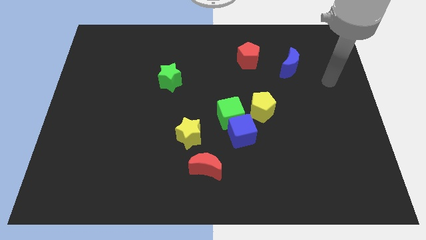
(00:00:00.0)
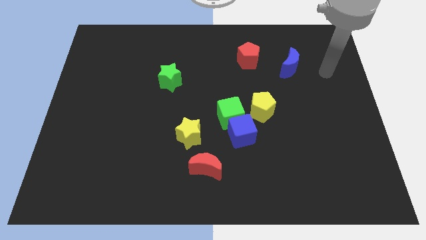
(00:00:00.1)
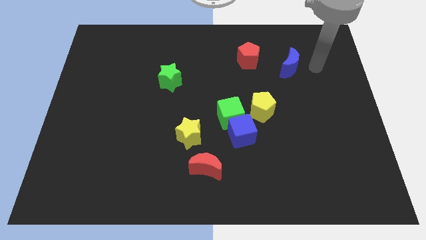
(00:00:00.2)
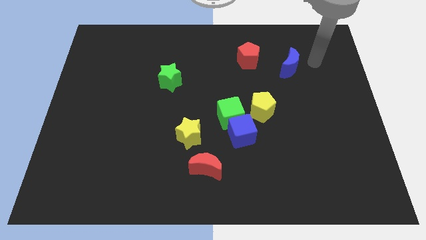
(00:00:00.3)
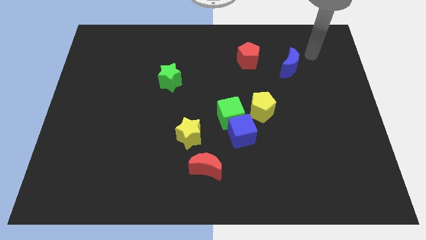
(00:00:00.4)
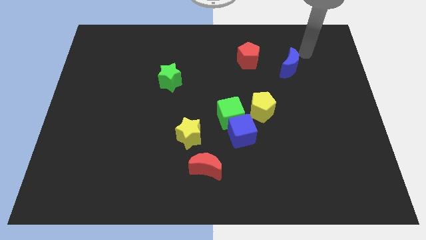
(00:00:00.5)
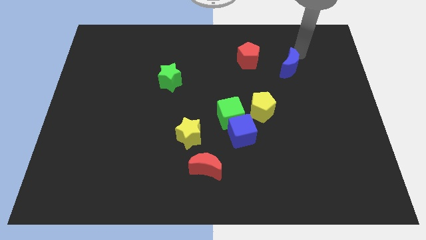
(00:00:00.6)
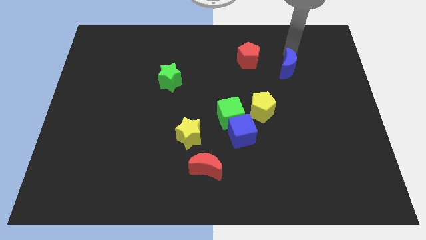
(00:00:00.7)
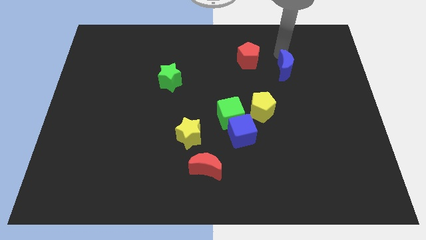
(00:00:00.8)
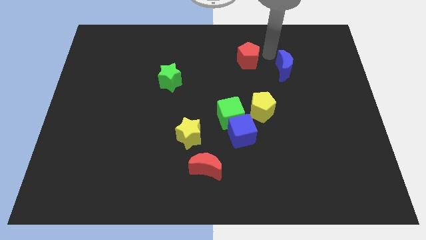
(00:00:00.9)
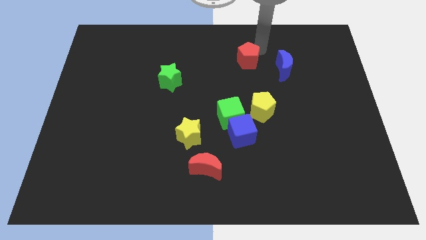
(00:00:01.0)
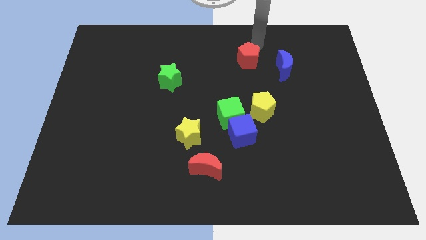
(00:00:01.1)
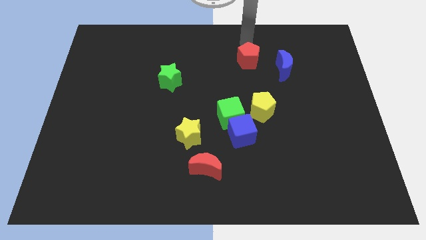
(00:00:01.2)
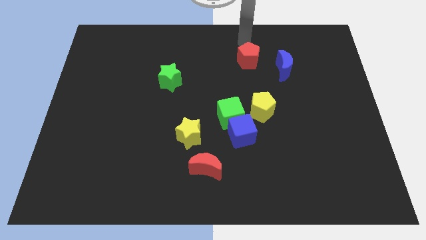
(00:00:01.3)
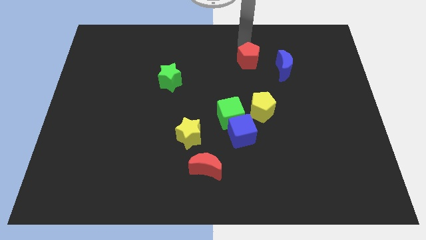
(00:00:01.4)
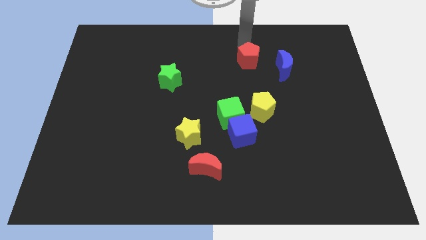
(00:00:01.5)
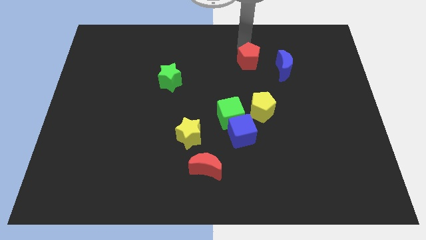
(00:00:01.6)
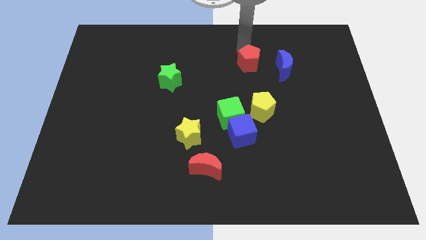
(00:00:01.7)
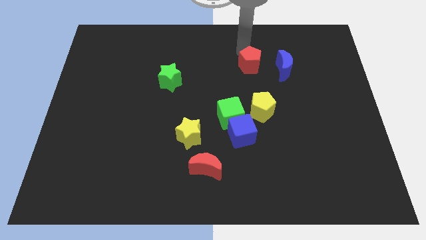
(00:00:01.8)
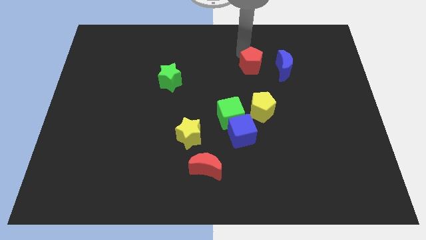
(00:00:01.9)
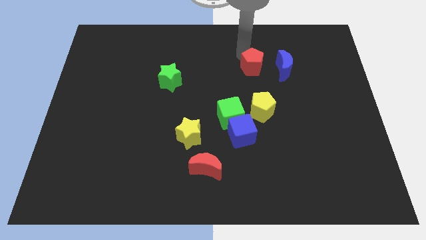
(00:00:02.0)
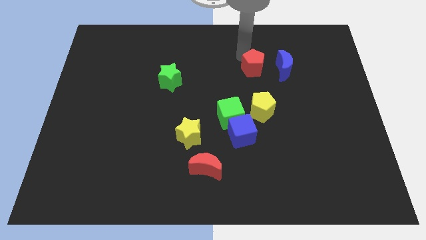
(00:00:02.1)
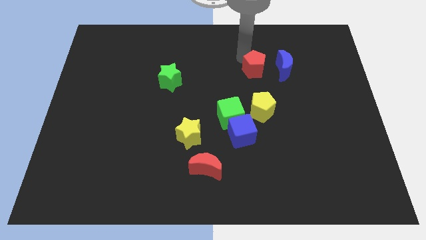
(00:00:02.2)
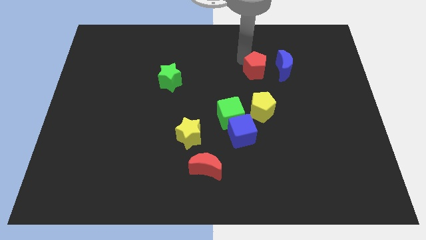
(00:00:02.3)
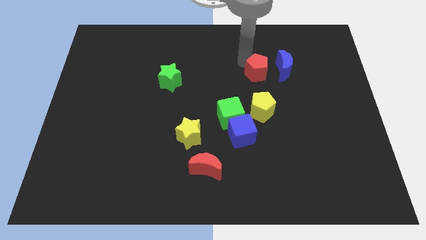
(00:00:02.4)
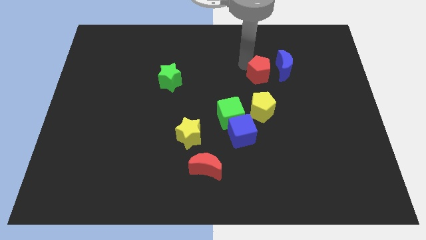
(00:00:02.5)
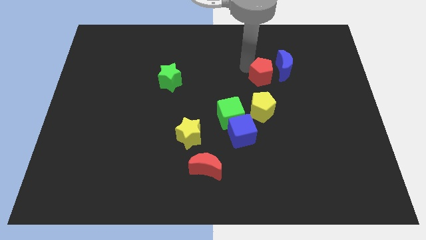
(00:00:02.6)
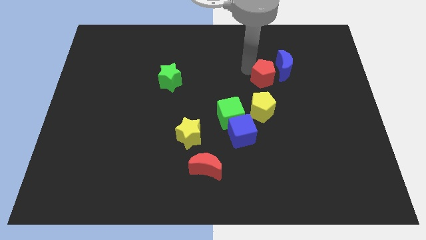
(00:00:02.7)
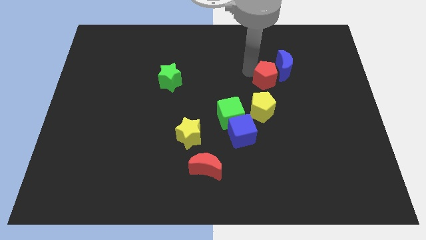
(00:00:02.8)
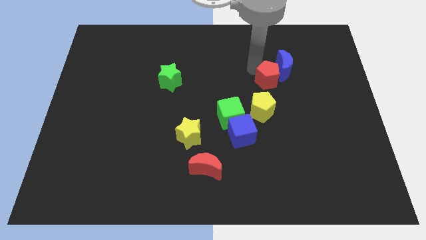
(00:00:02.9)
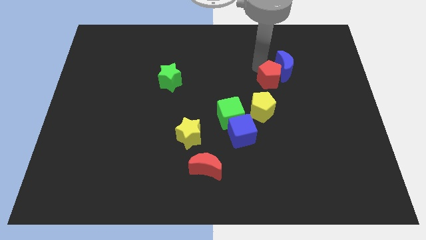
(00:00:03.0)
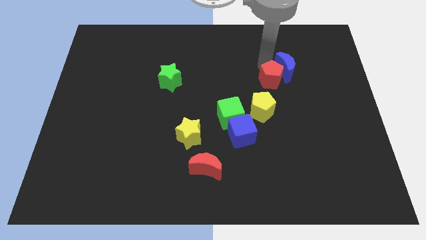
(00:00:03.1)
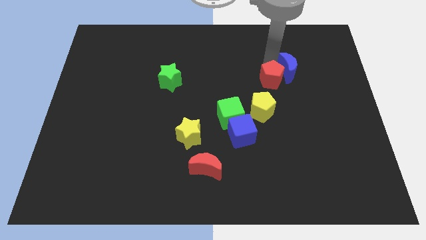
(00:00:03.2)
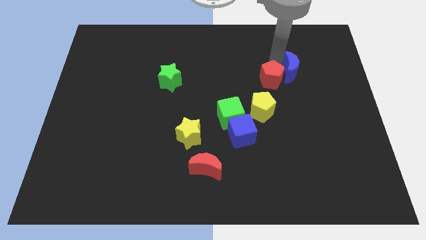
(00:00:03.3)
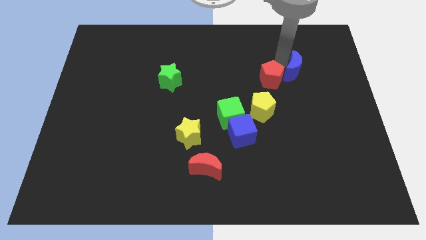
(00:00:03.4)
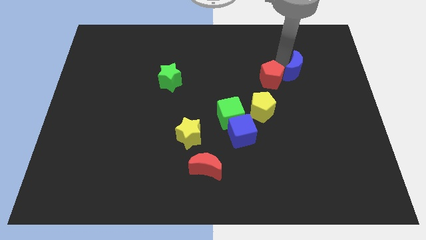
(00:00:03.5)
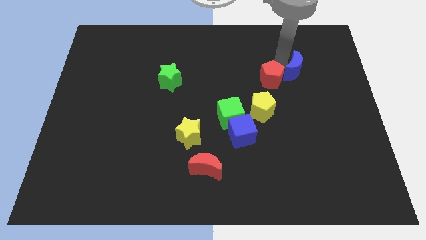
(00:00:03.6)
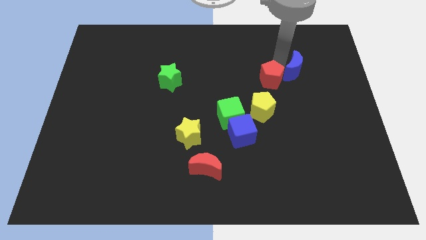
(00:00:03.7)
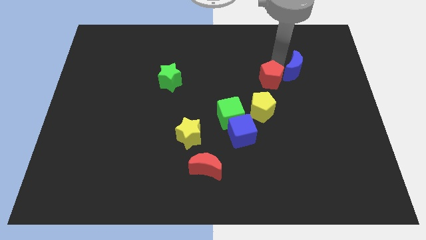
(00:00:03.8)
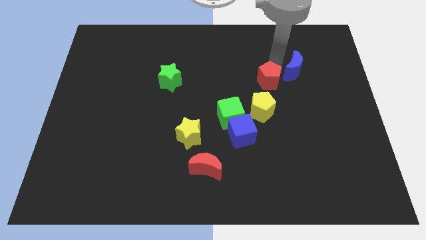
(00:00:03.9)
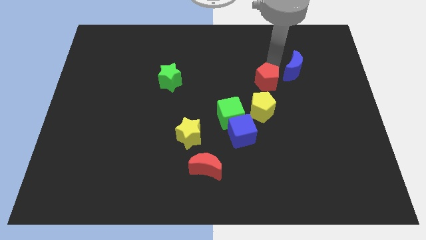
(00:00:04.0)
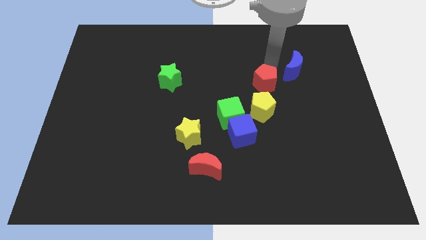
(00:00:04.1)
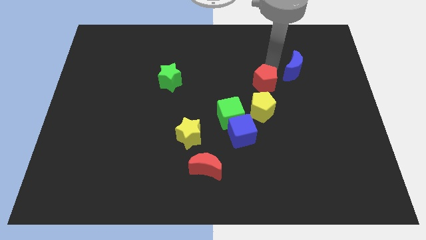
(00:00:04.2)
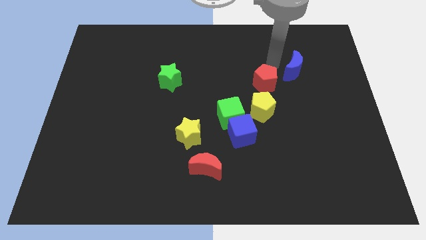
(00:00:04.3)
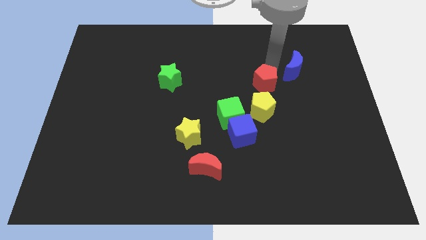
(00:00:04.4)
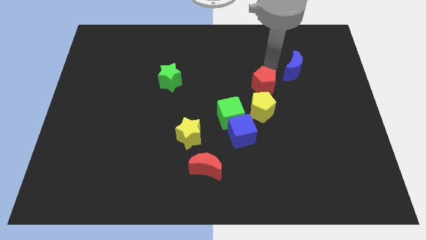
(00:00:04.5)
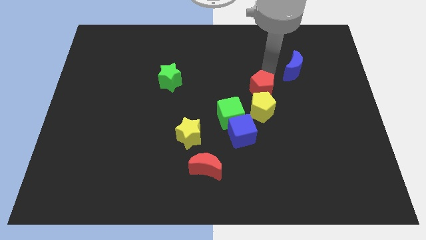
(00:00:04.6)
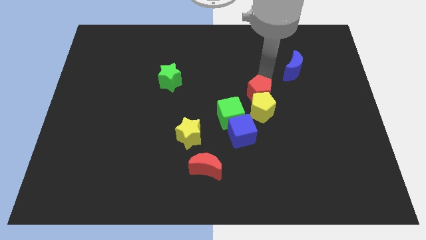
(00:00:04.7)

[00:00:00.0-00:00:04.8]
slide the red pentagon close to the yellow pentagon

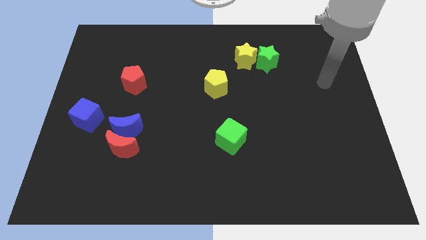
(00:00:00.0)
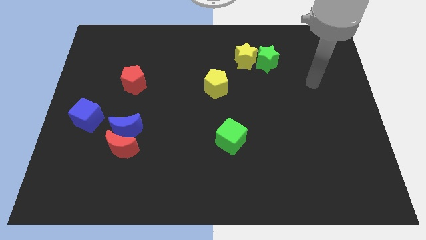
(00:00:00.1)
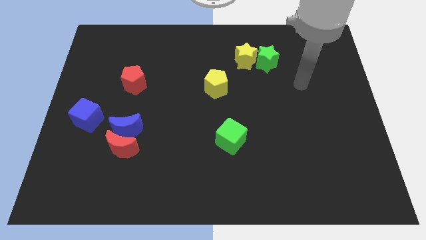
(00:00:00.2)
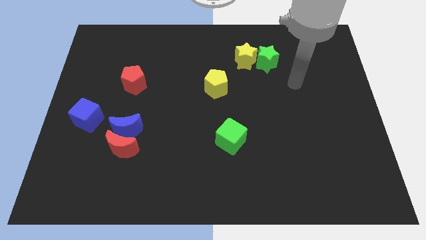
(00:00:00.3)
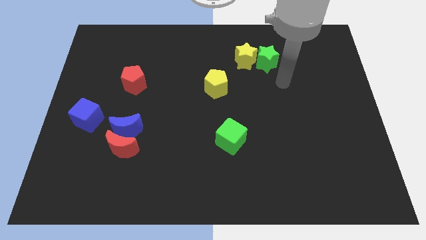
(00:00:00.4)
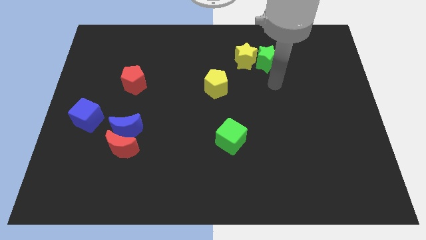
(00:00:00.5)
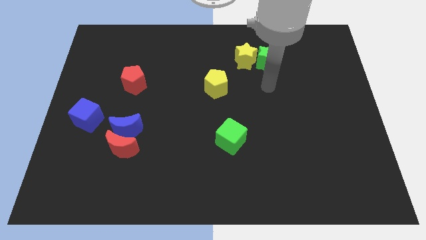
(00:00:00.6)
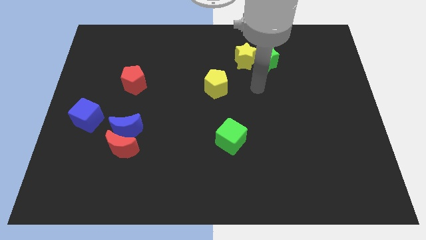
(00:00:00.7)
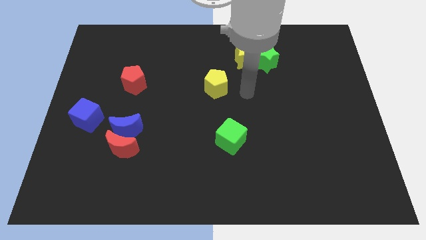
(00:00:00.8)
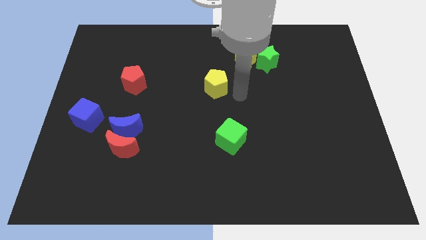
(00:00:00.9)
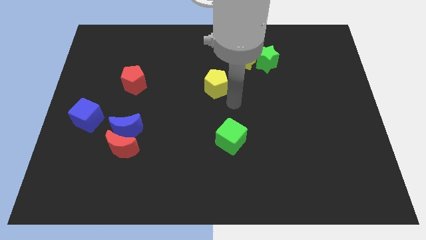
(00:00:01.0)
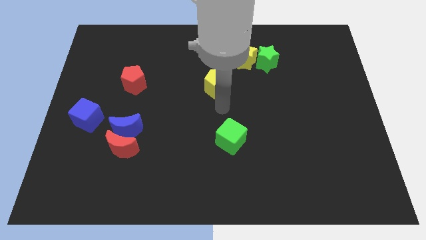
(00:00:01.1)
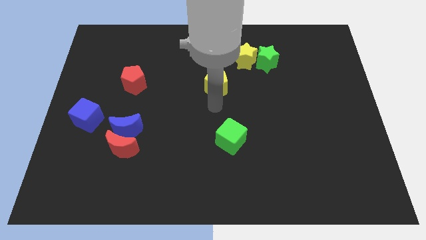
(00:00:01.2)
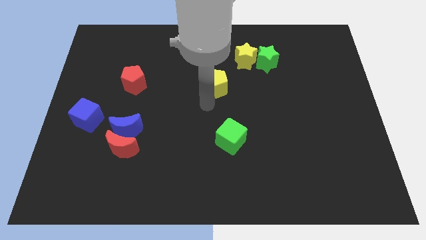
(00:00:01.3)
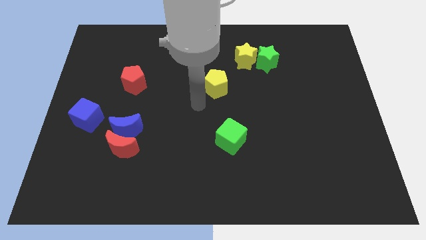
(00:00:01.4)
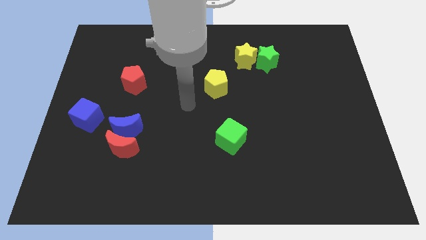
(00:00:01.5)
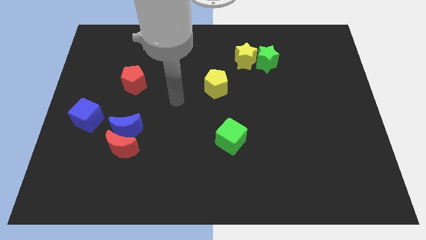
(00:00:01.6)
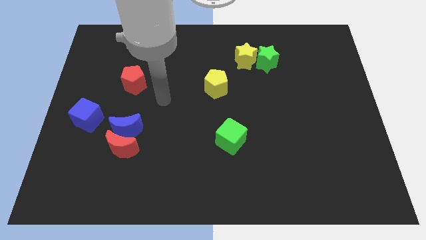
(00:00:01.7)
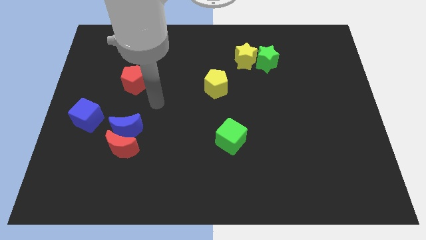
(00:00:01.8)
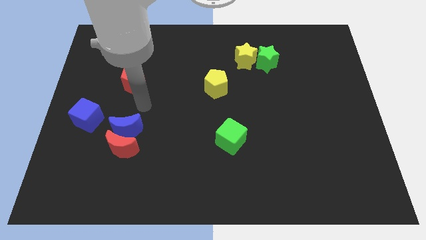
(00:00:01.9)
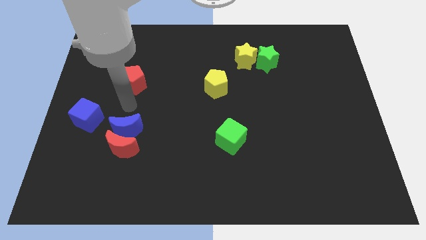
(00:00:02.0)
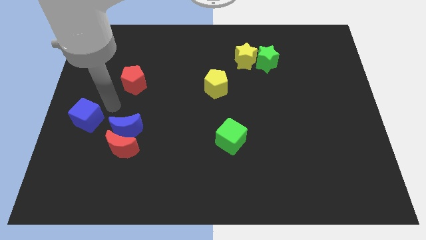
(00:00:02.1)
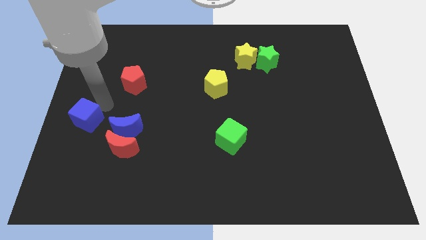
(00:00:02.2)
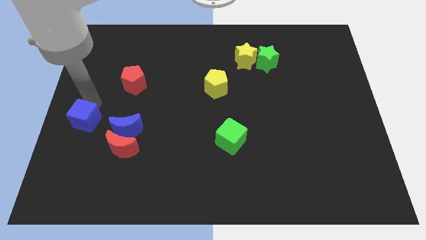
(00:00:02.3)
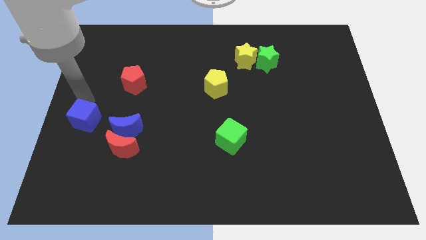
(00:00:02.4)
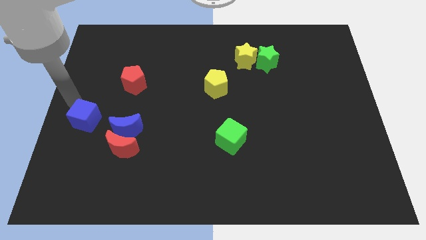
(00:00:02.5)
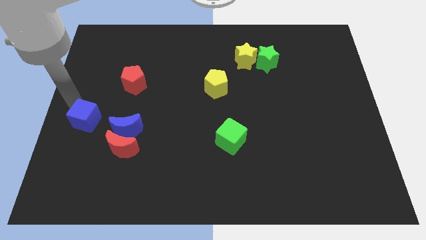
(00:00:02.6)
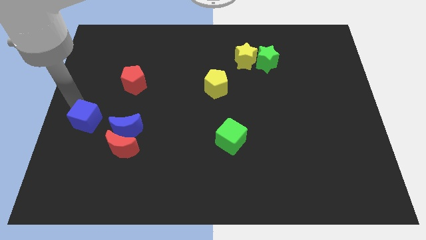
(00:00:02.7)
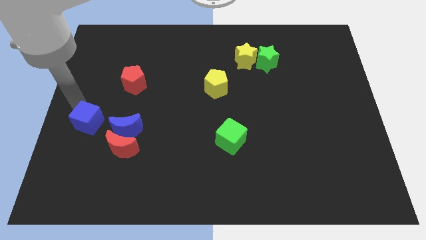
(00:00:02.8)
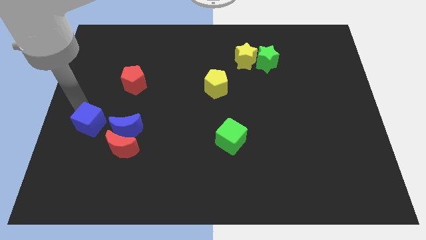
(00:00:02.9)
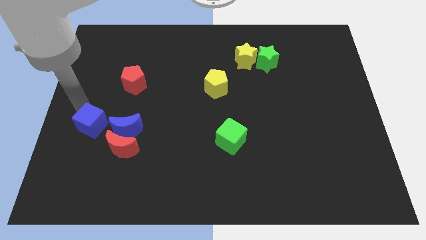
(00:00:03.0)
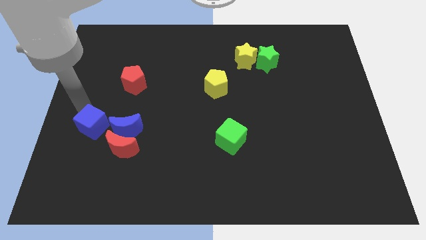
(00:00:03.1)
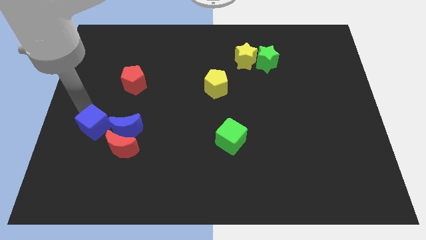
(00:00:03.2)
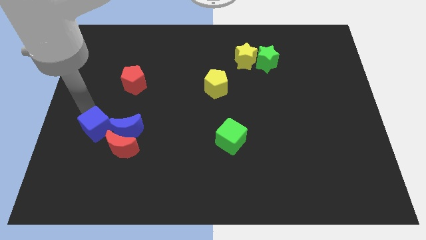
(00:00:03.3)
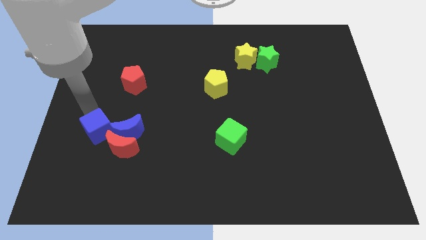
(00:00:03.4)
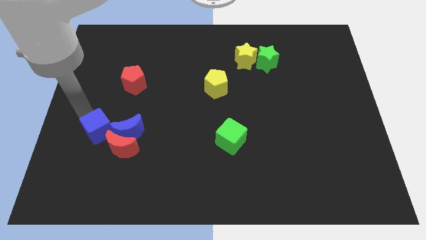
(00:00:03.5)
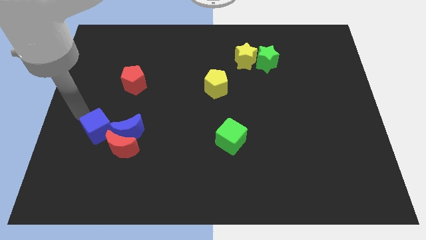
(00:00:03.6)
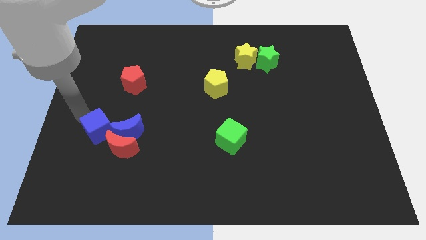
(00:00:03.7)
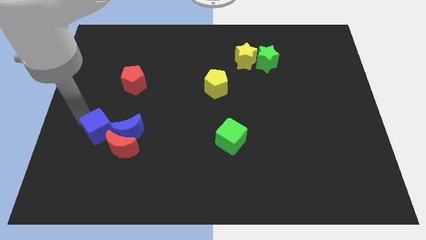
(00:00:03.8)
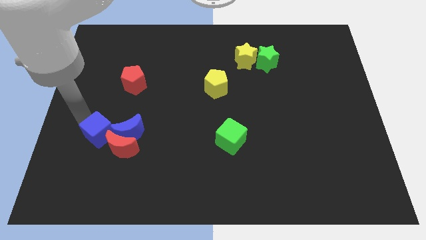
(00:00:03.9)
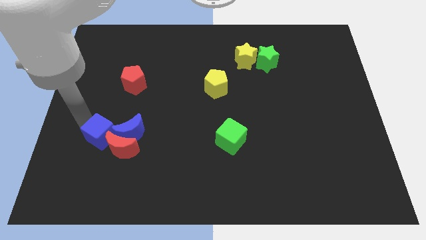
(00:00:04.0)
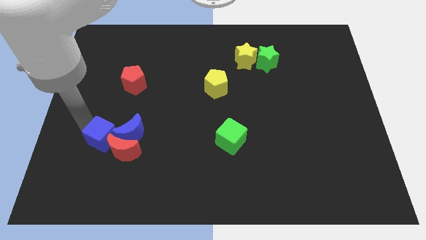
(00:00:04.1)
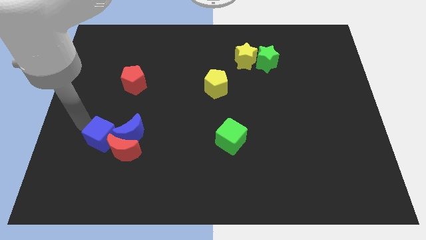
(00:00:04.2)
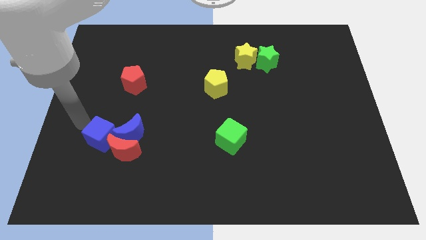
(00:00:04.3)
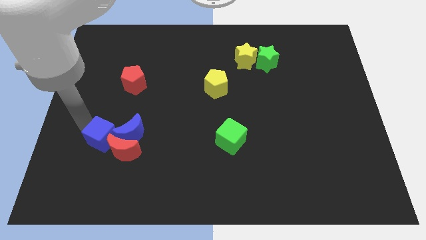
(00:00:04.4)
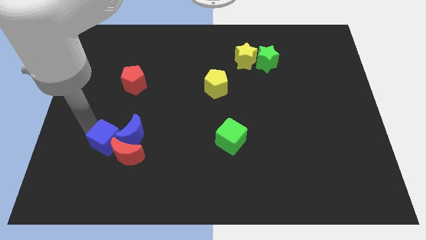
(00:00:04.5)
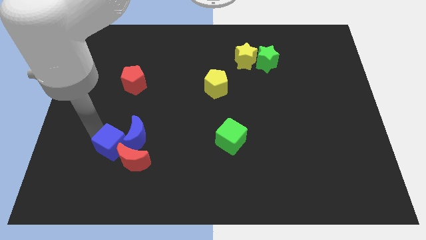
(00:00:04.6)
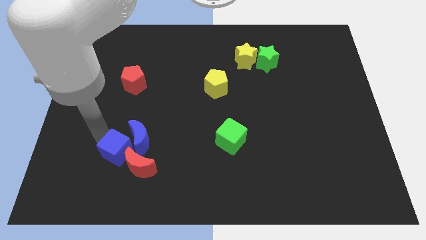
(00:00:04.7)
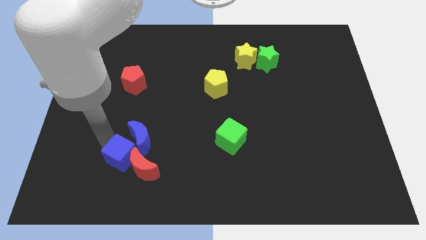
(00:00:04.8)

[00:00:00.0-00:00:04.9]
put the blue cube next to the red moon
